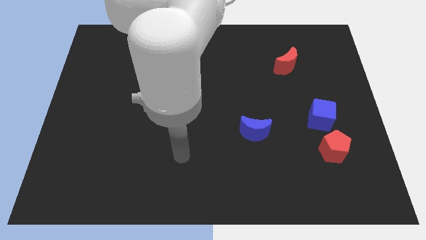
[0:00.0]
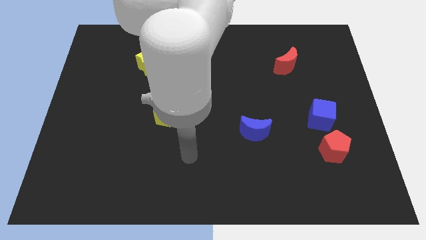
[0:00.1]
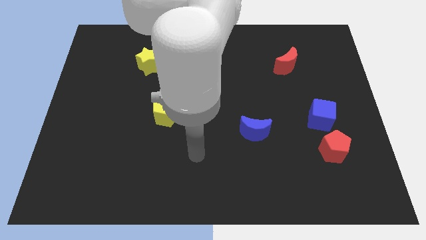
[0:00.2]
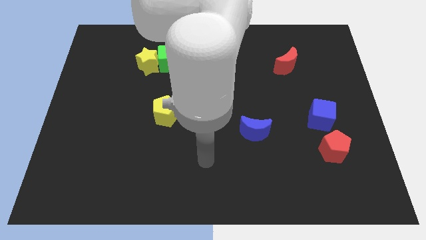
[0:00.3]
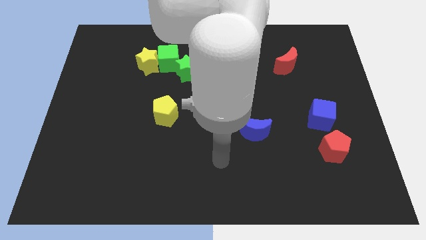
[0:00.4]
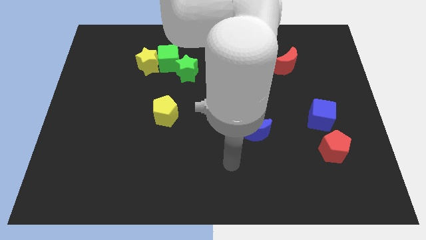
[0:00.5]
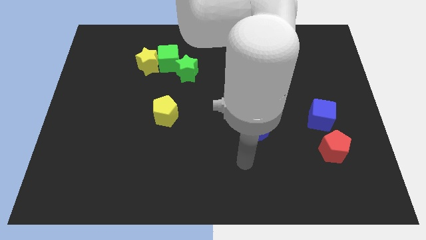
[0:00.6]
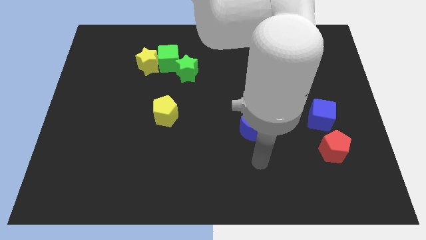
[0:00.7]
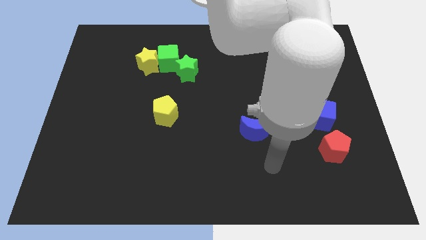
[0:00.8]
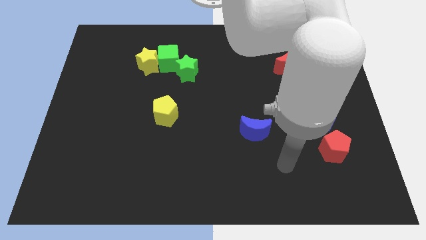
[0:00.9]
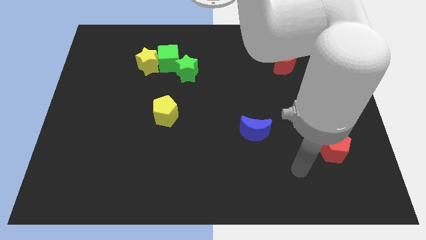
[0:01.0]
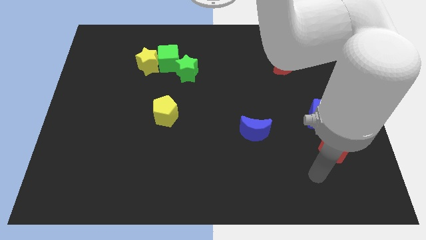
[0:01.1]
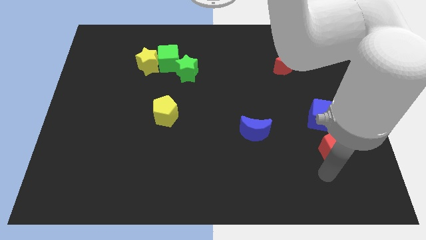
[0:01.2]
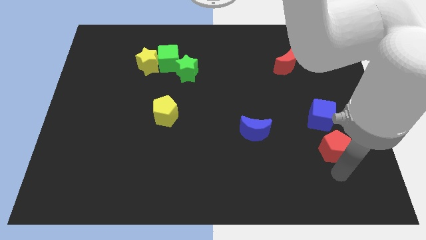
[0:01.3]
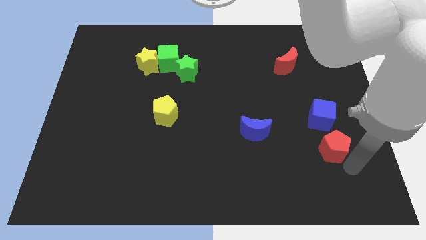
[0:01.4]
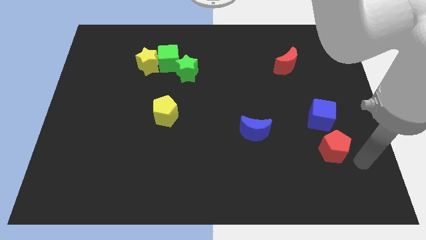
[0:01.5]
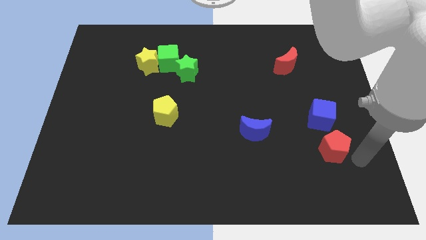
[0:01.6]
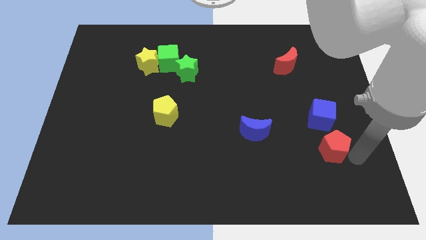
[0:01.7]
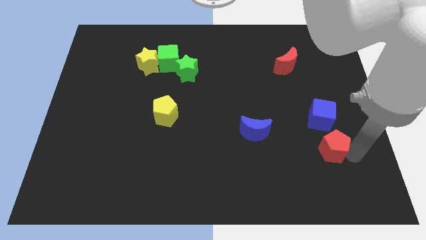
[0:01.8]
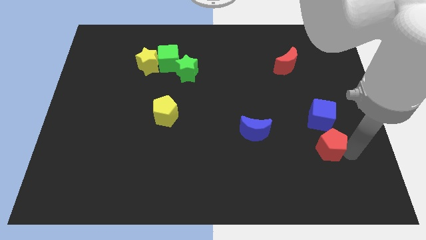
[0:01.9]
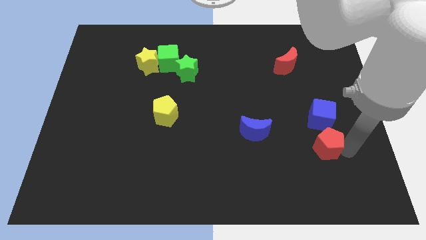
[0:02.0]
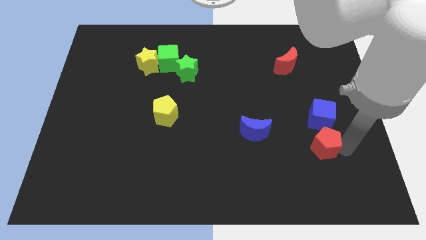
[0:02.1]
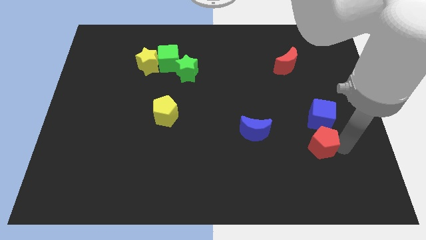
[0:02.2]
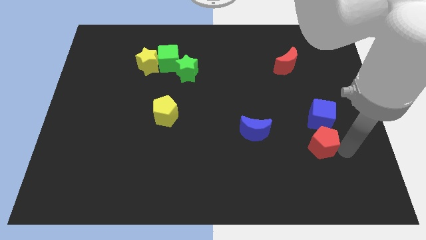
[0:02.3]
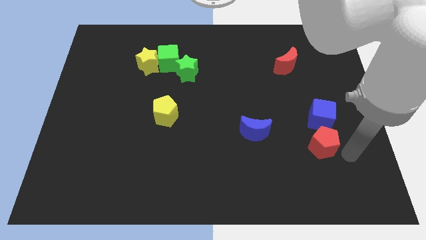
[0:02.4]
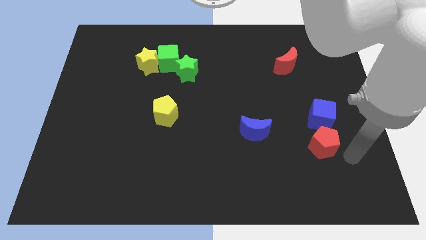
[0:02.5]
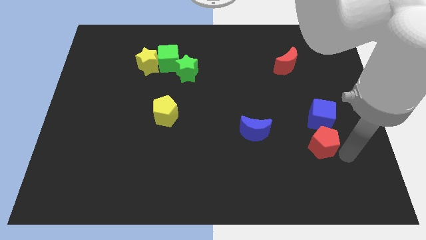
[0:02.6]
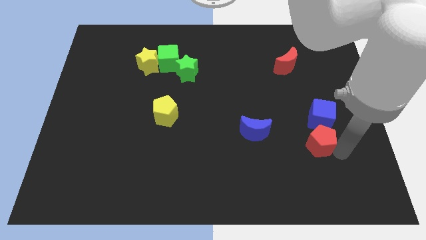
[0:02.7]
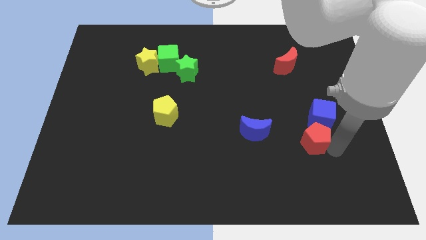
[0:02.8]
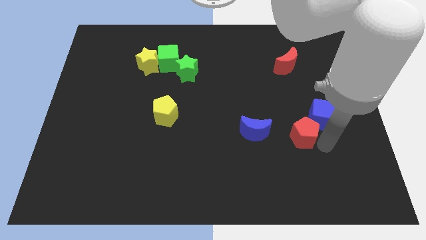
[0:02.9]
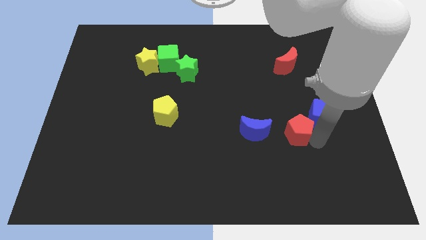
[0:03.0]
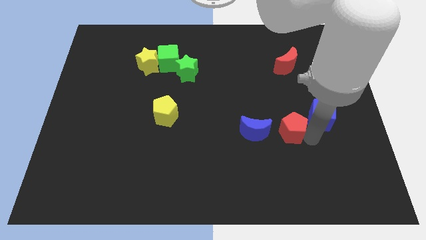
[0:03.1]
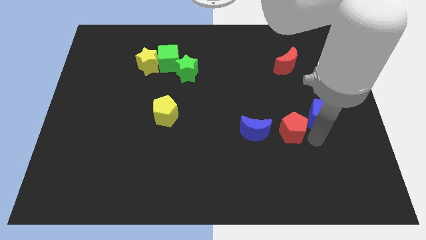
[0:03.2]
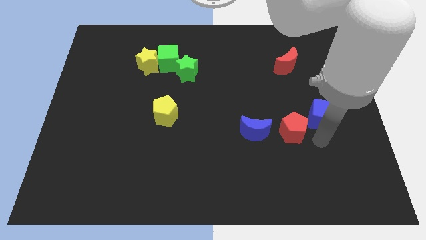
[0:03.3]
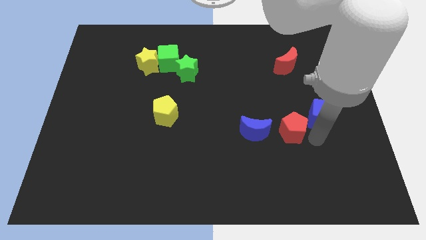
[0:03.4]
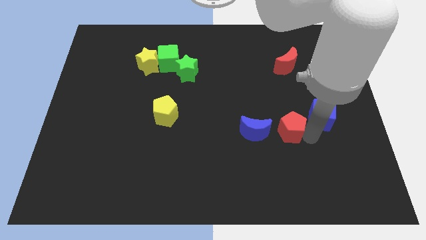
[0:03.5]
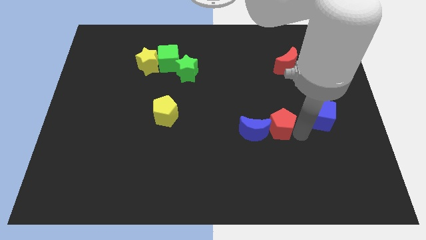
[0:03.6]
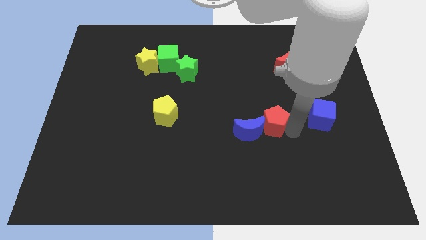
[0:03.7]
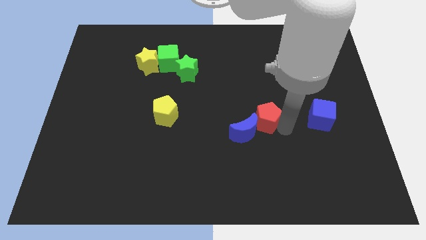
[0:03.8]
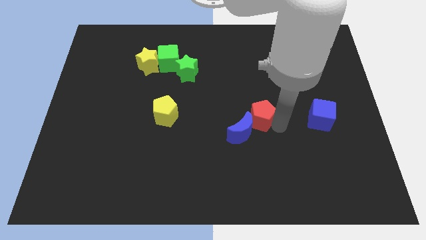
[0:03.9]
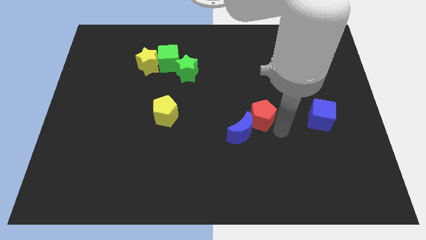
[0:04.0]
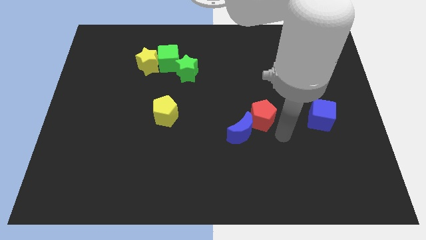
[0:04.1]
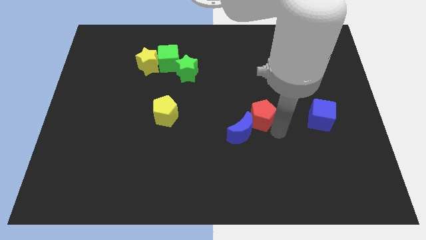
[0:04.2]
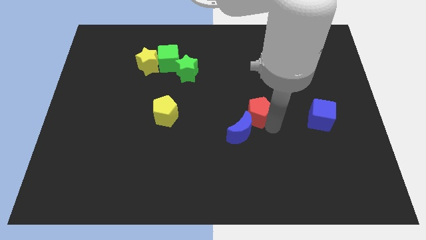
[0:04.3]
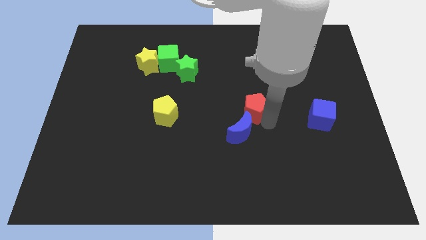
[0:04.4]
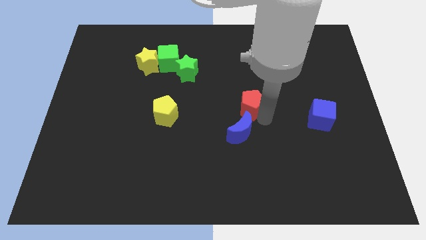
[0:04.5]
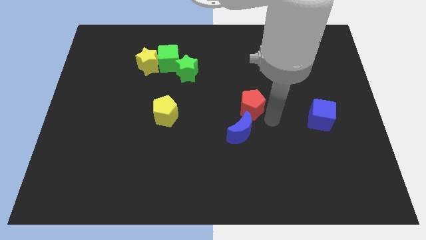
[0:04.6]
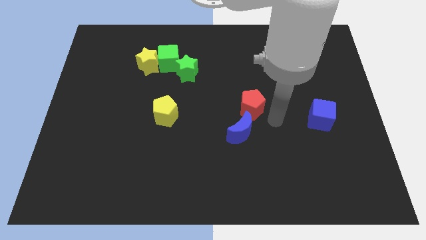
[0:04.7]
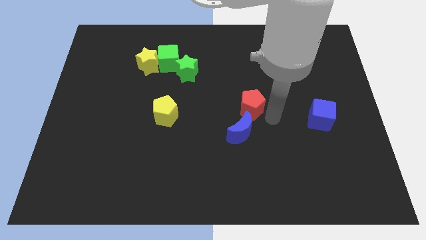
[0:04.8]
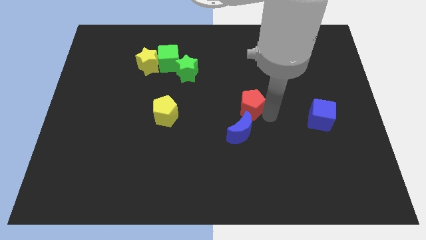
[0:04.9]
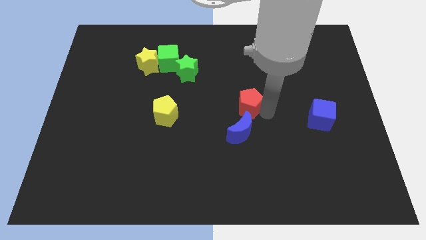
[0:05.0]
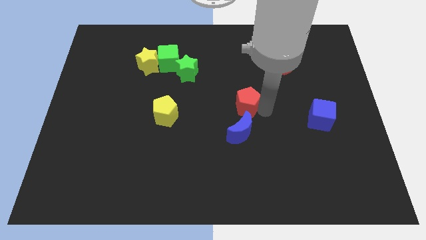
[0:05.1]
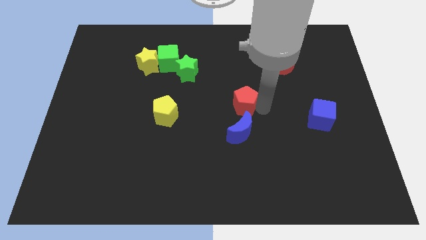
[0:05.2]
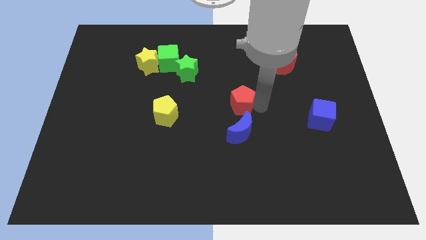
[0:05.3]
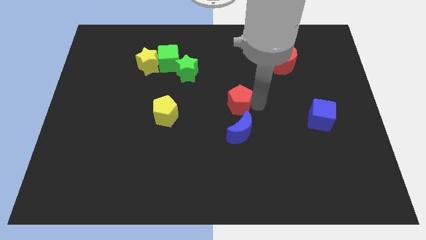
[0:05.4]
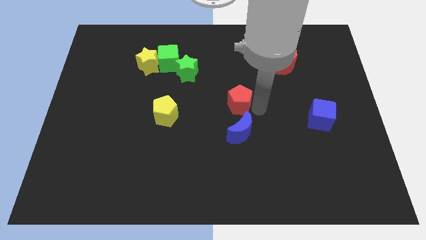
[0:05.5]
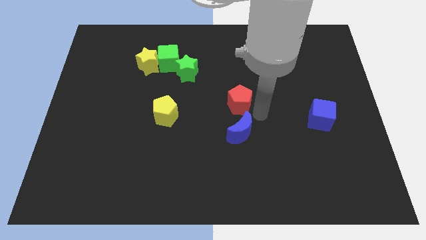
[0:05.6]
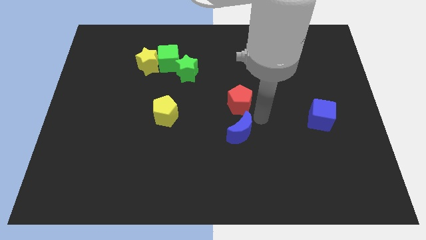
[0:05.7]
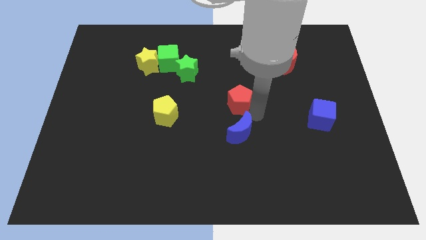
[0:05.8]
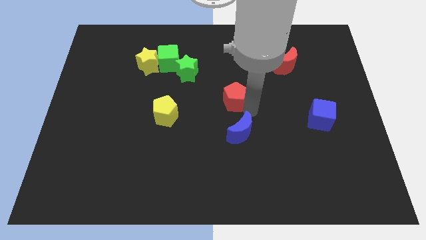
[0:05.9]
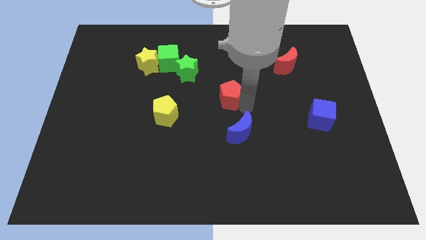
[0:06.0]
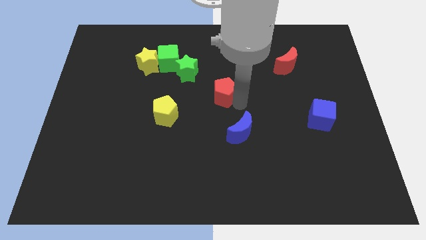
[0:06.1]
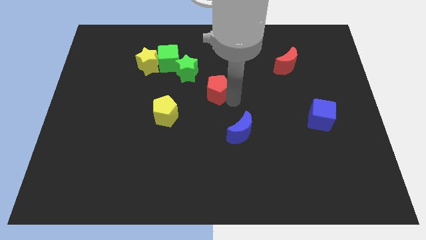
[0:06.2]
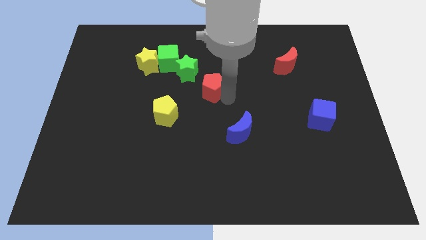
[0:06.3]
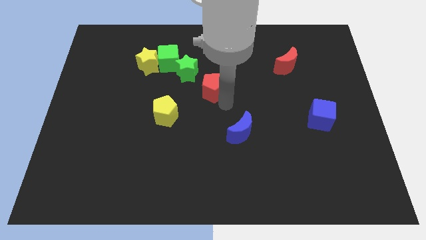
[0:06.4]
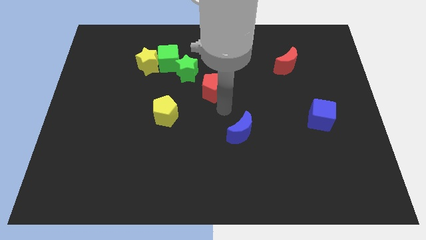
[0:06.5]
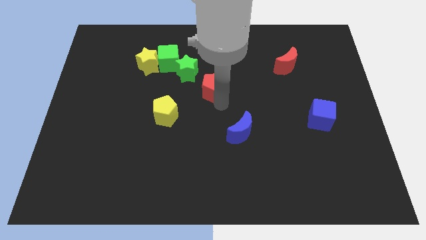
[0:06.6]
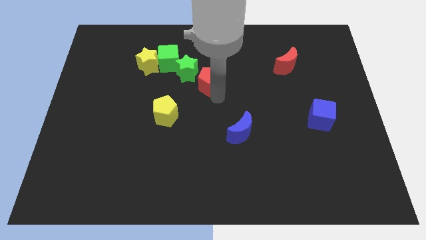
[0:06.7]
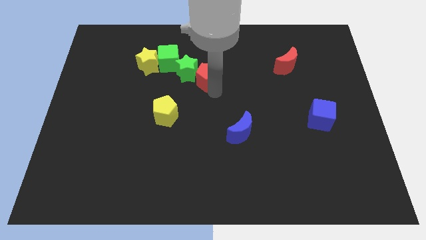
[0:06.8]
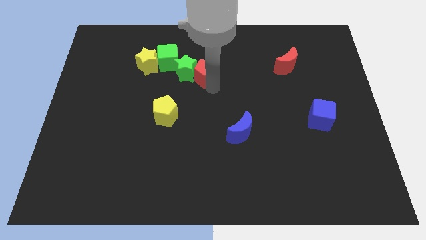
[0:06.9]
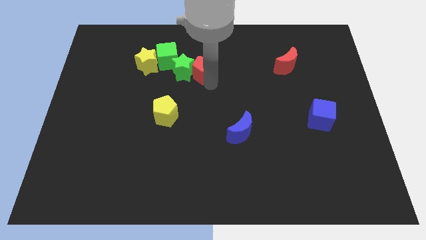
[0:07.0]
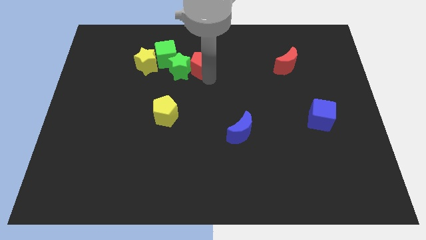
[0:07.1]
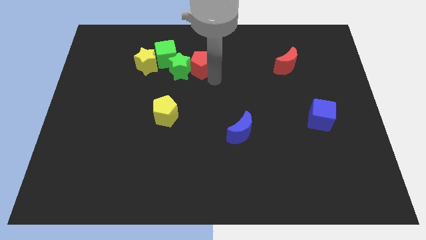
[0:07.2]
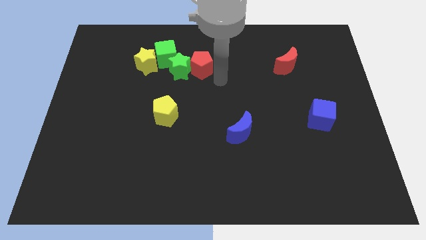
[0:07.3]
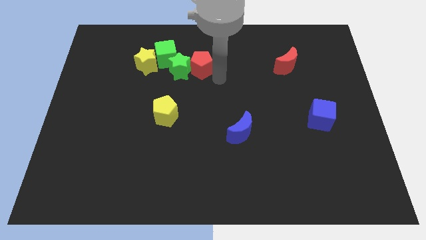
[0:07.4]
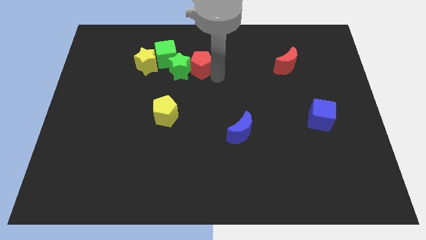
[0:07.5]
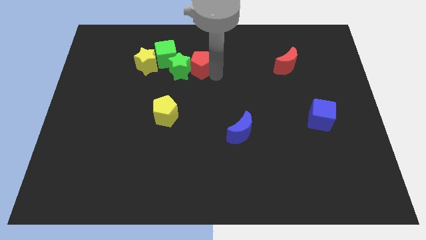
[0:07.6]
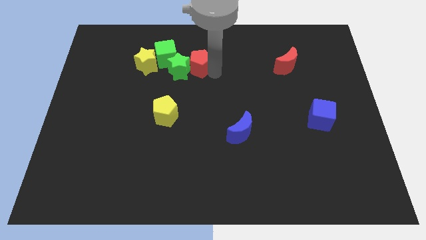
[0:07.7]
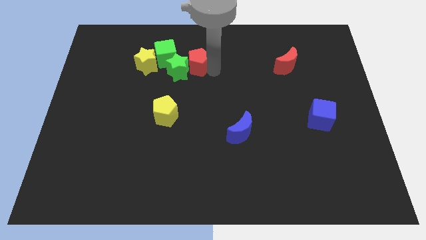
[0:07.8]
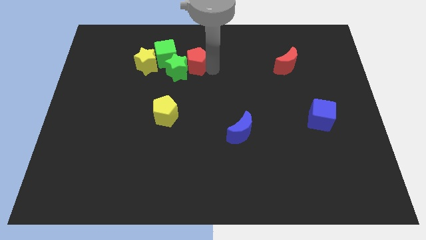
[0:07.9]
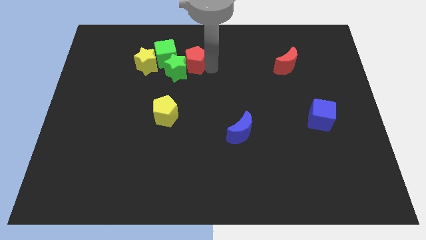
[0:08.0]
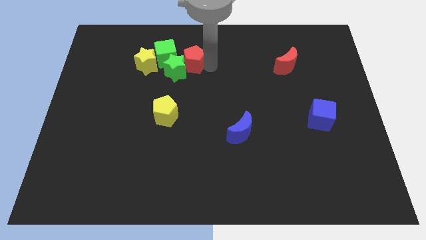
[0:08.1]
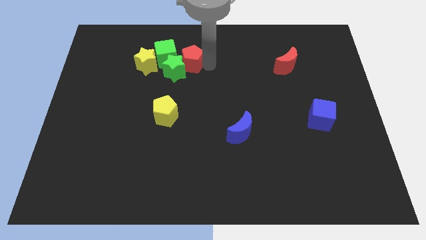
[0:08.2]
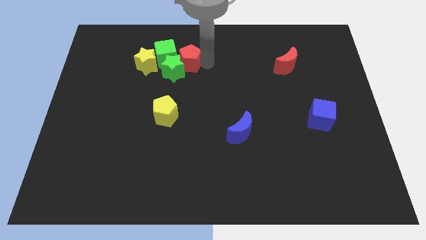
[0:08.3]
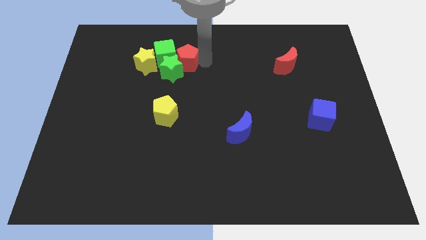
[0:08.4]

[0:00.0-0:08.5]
move the red pentagon to the green cube
